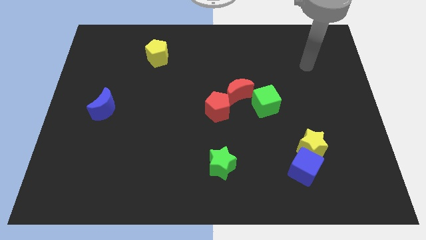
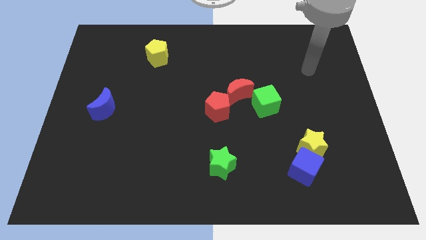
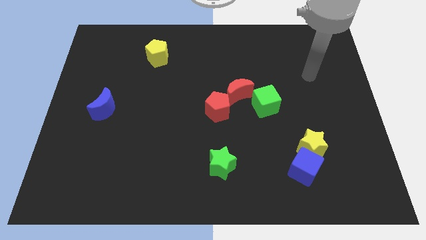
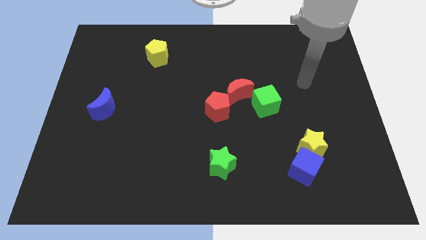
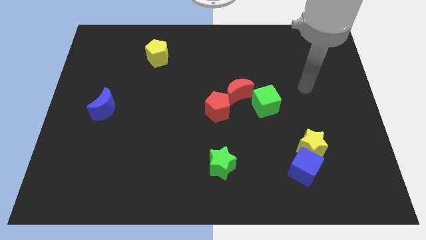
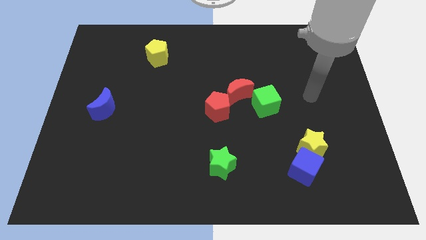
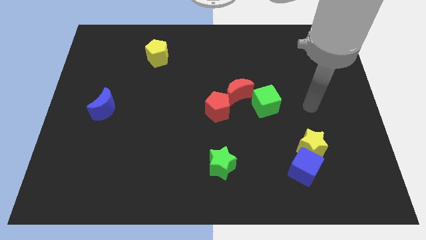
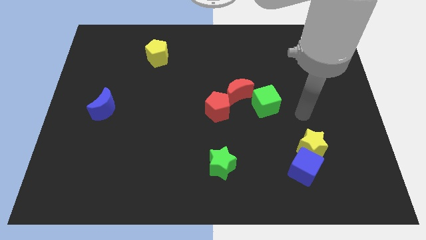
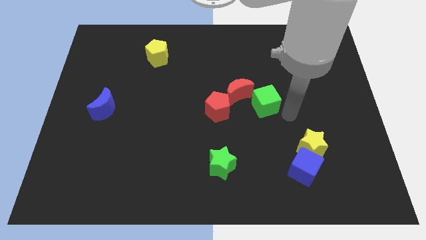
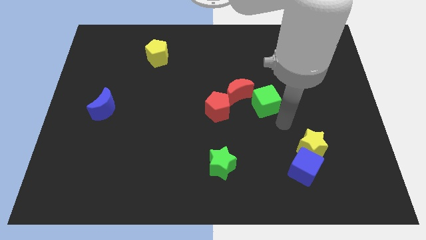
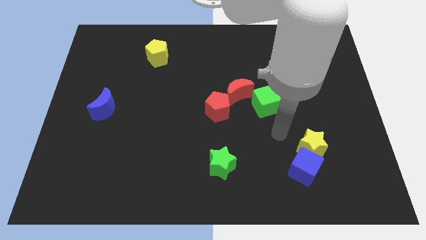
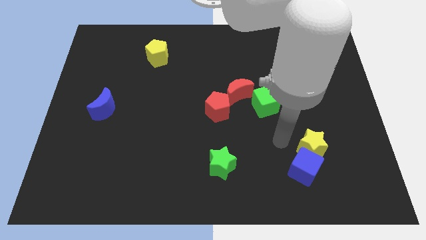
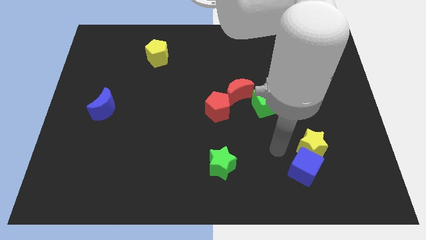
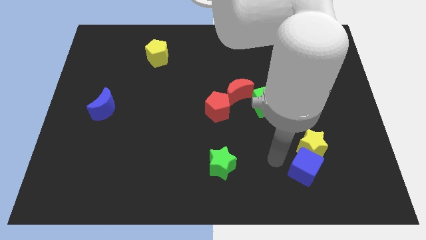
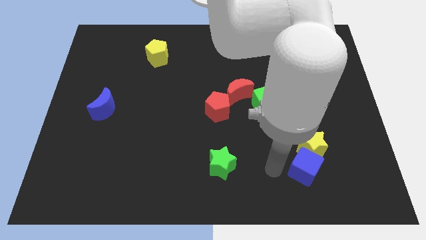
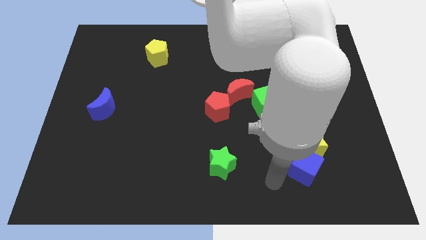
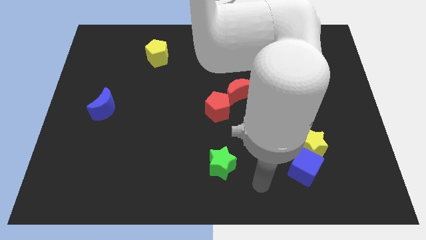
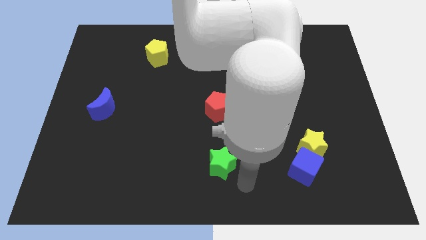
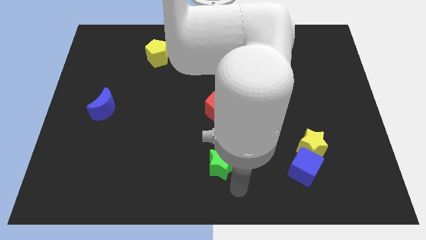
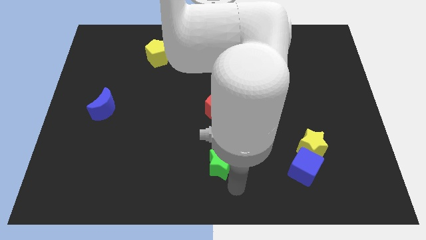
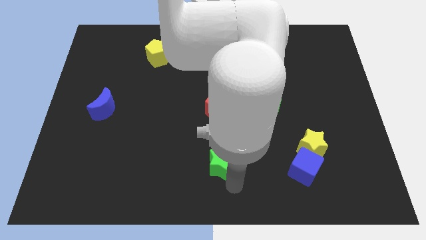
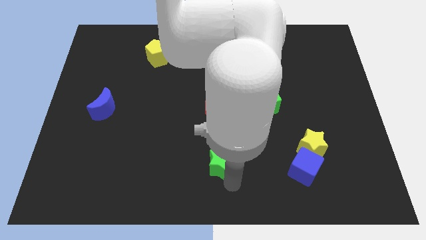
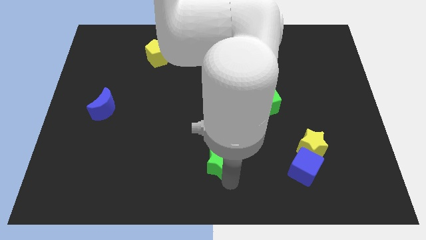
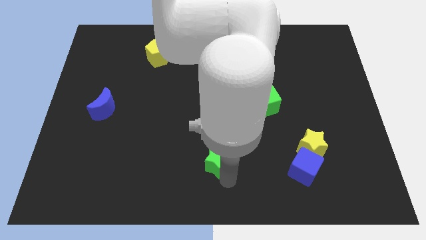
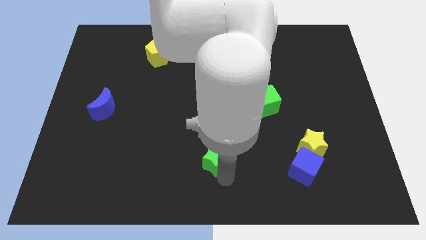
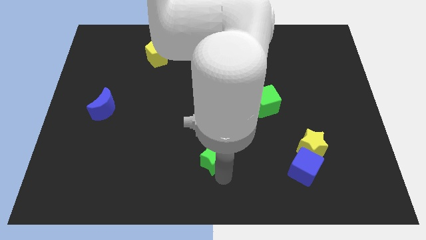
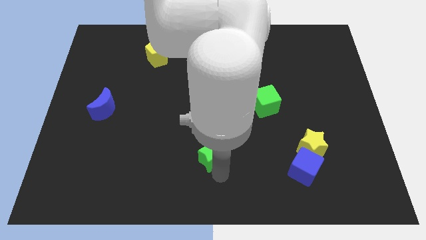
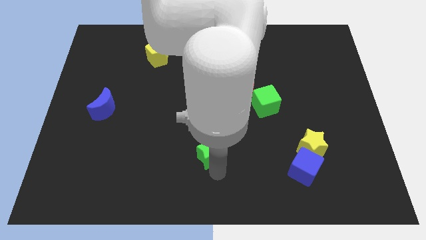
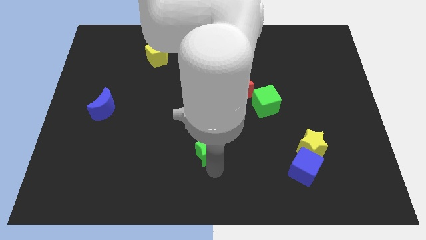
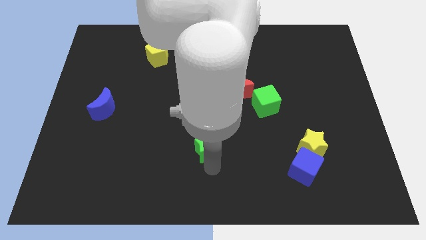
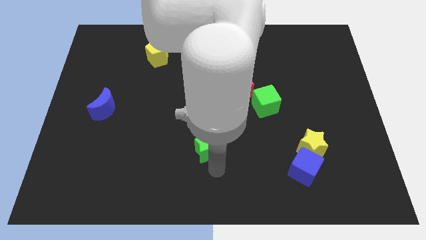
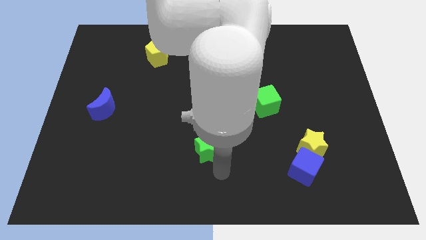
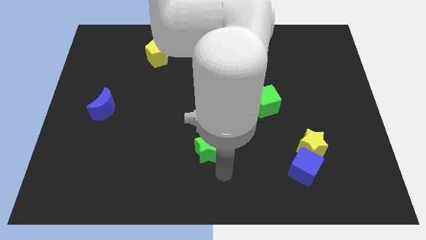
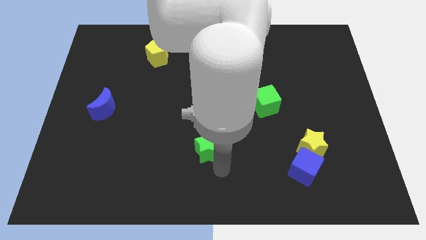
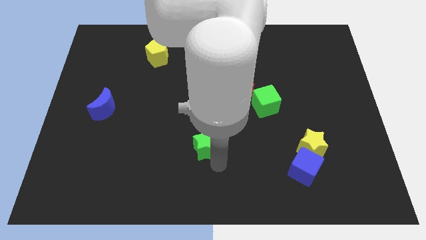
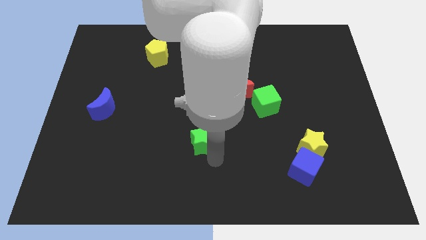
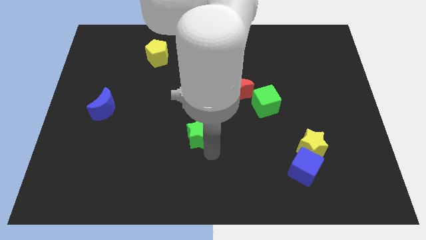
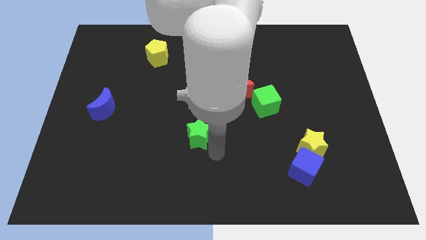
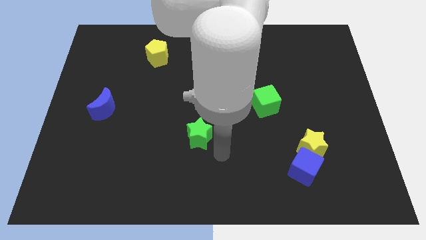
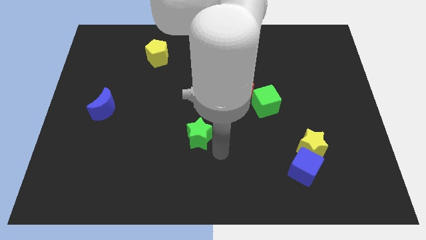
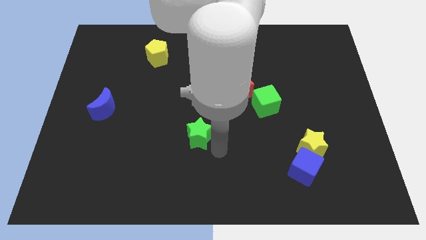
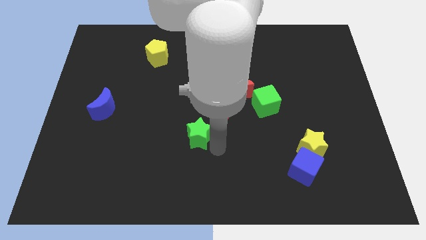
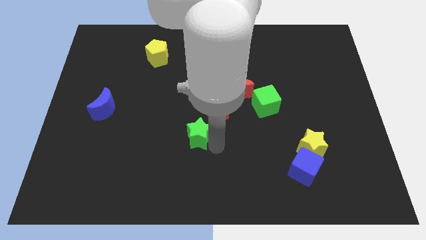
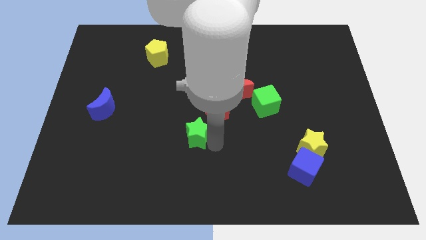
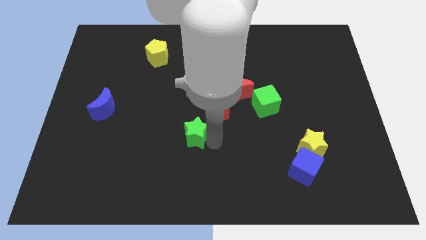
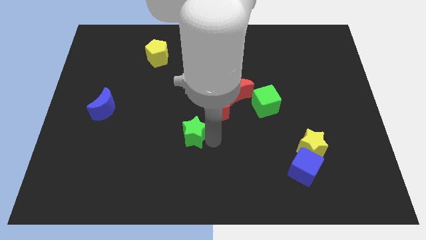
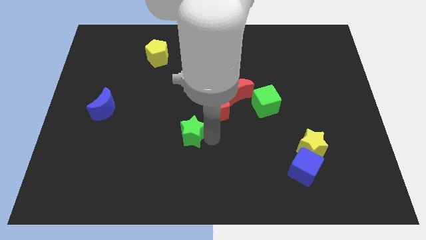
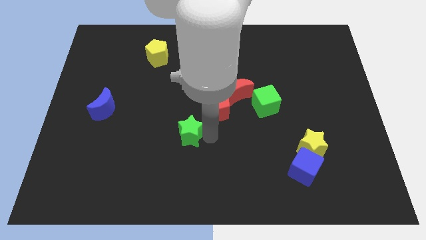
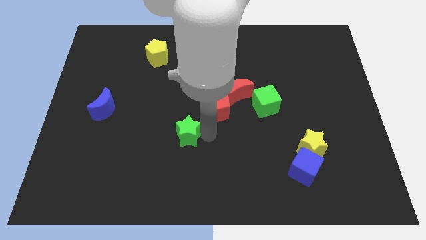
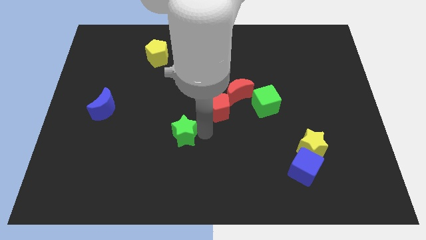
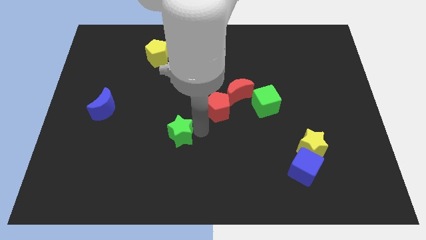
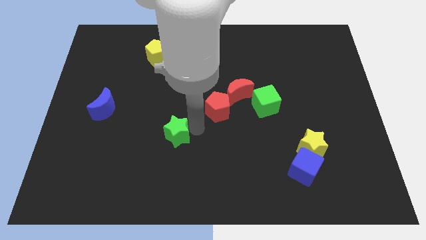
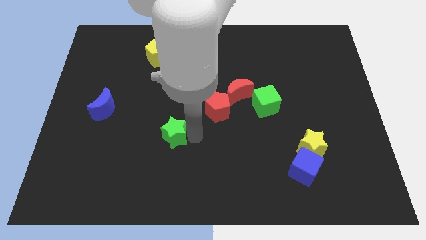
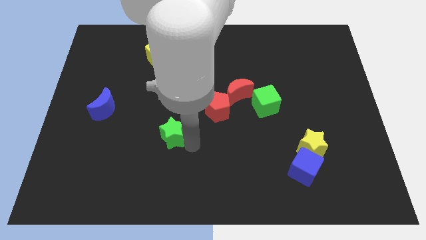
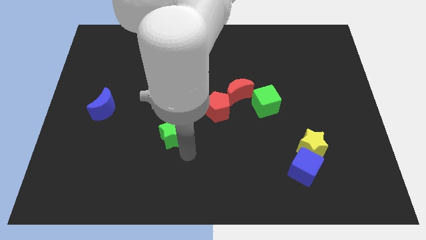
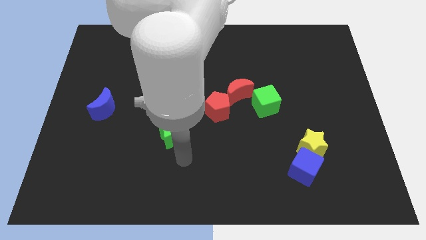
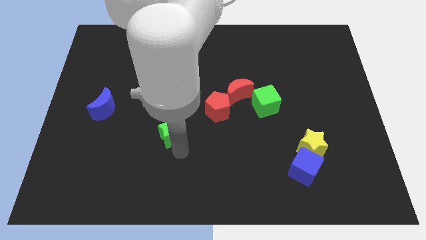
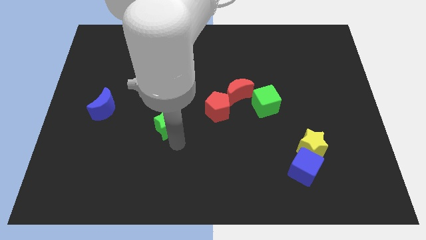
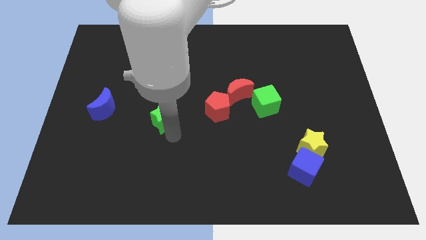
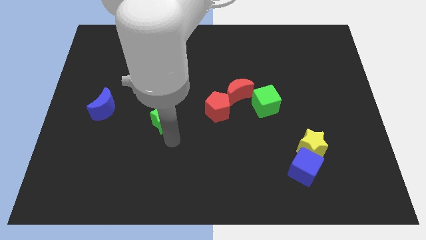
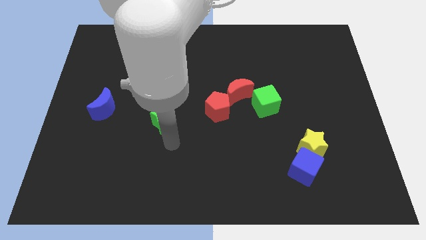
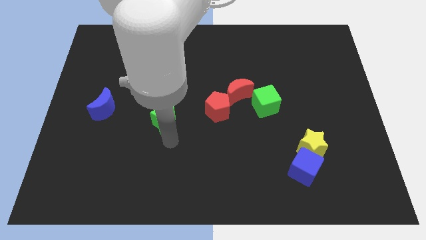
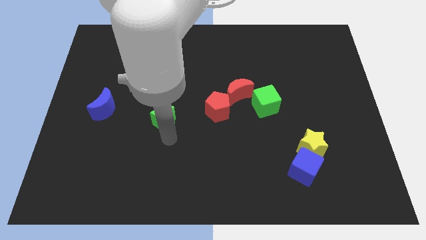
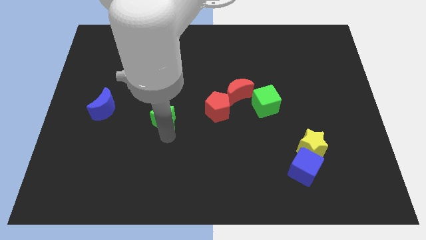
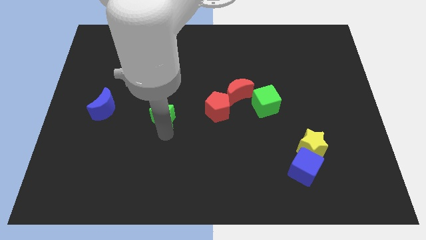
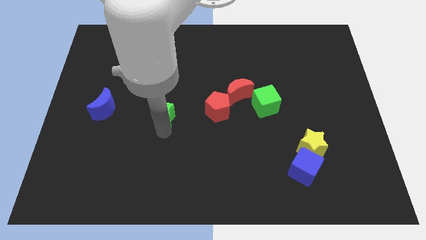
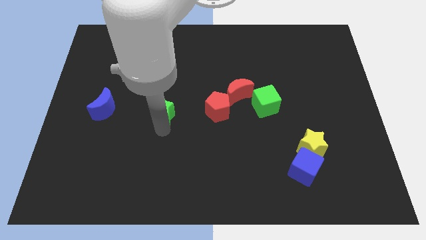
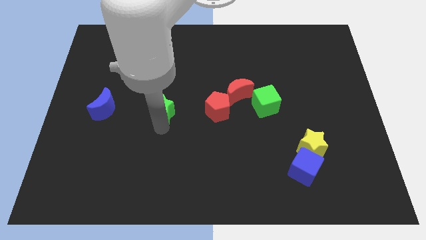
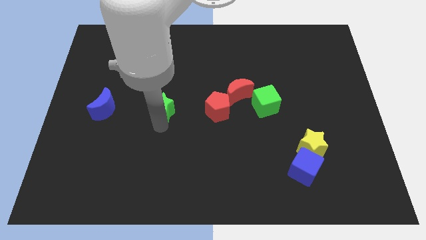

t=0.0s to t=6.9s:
push the green star upwards and to the left diagonally

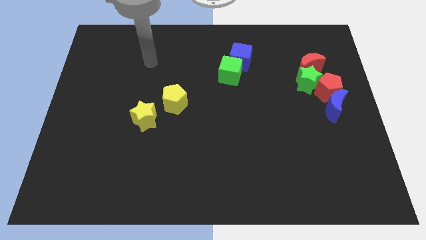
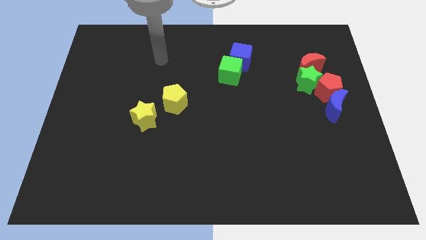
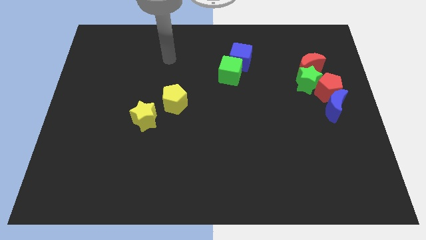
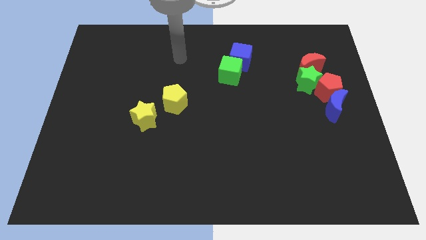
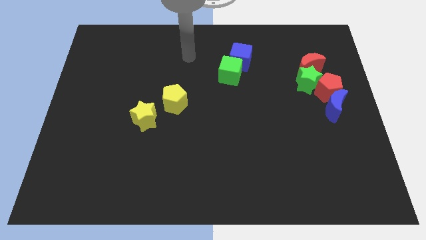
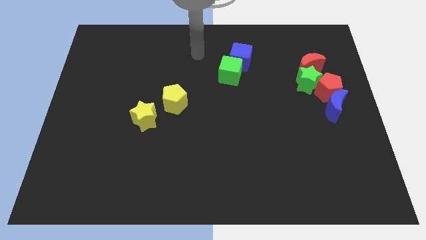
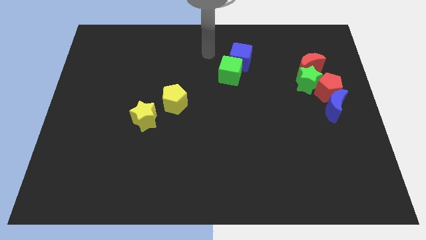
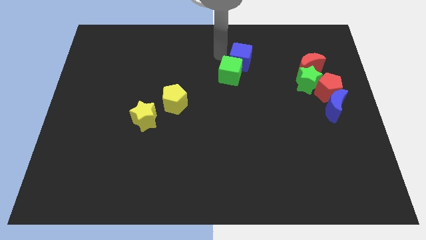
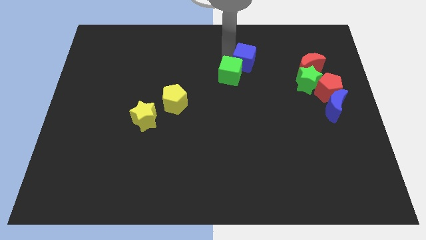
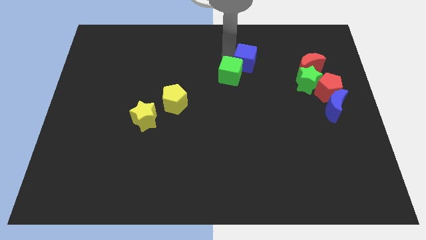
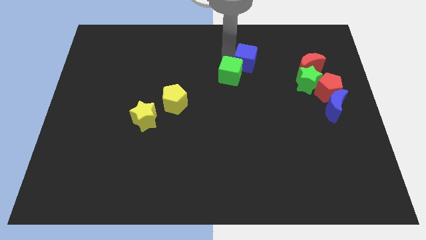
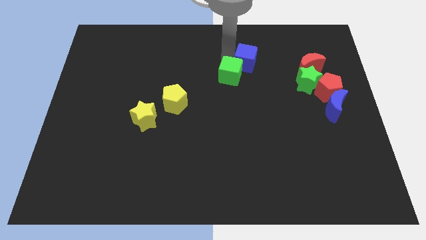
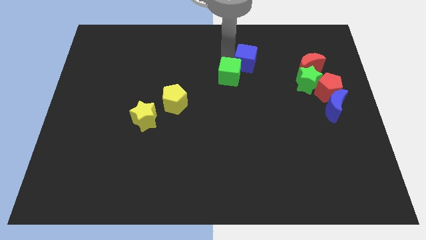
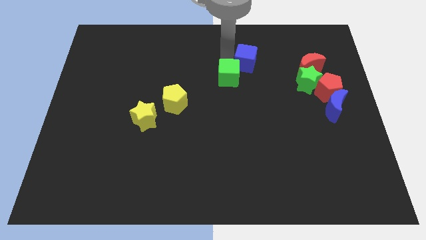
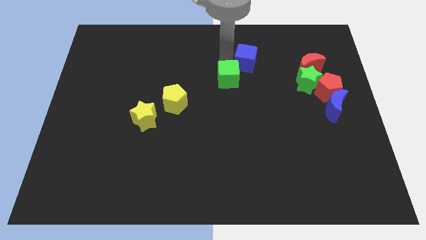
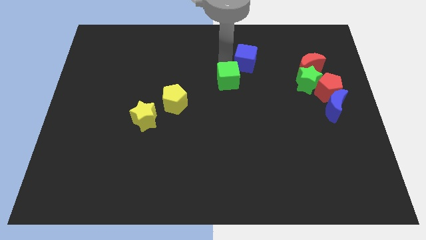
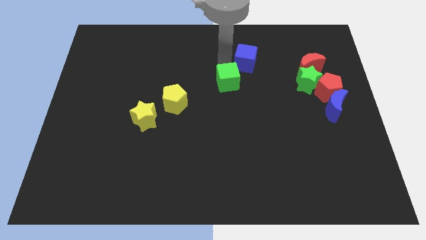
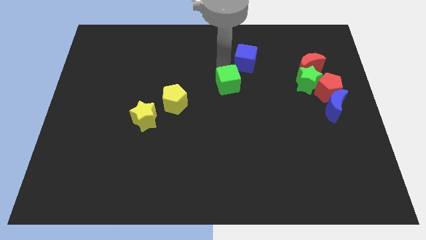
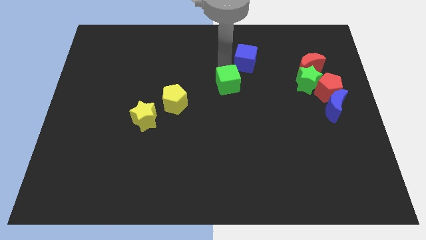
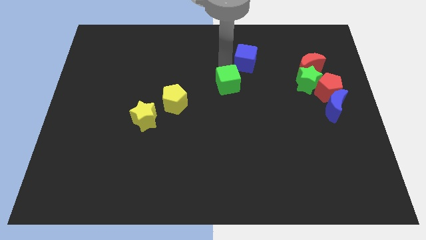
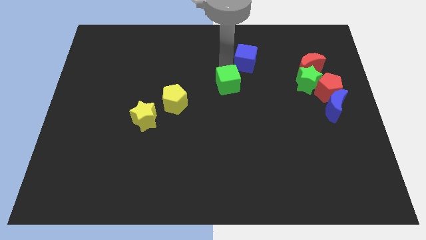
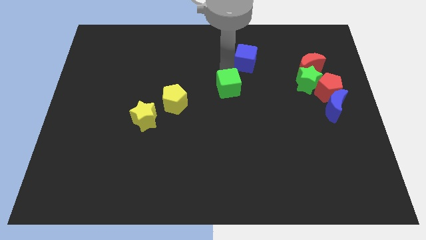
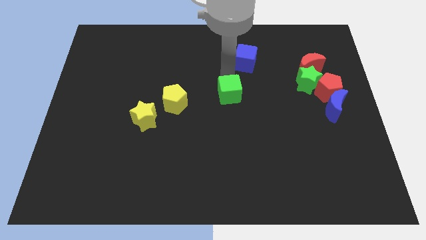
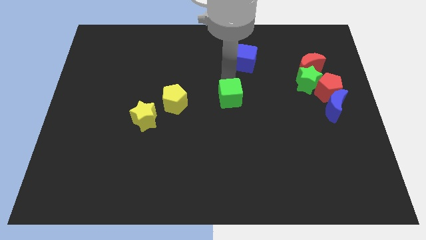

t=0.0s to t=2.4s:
slightly slide the green cube down
